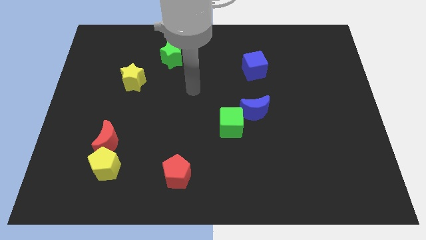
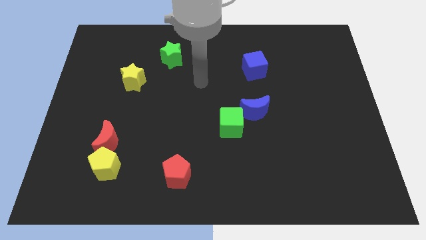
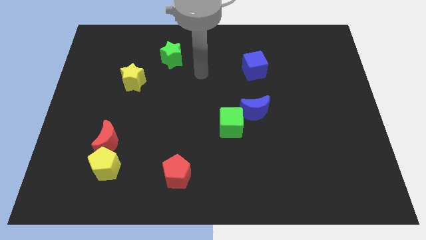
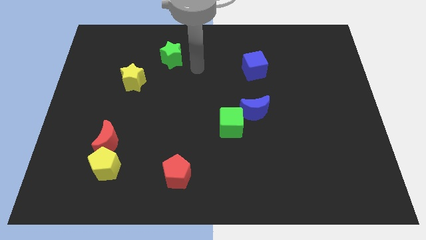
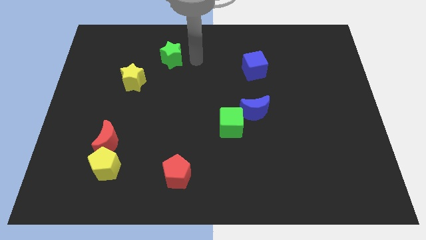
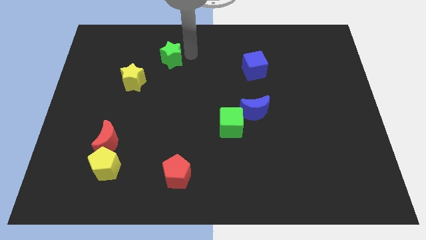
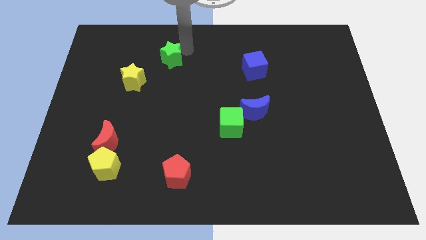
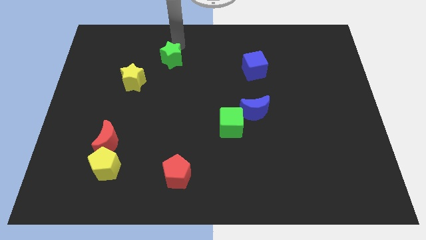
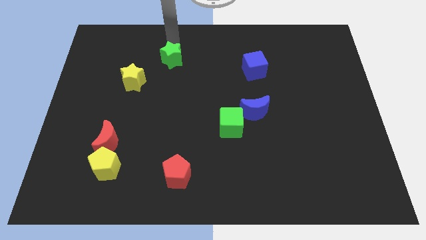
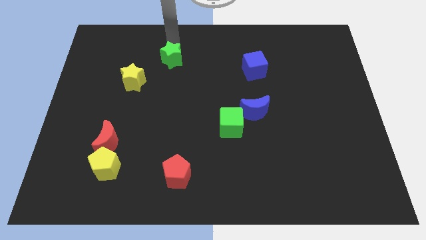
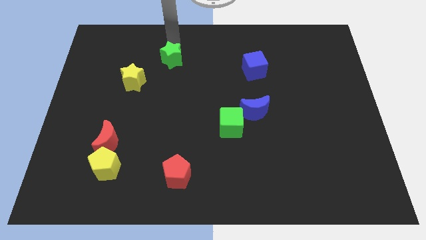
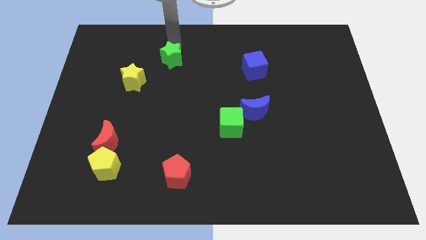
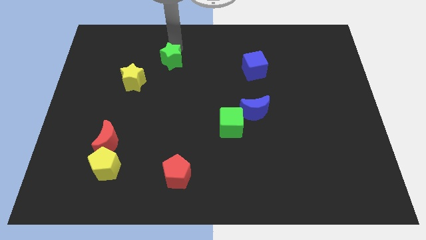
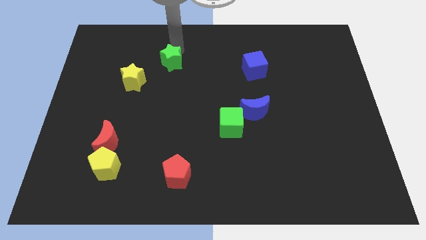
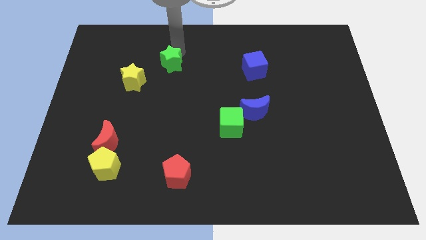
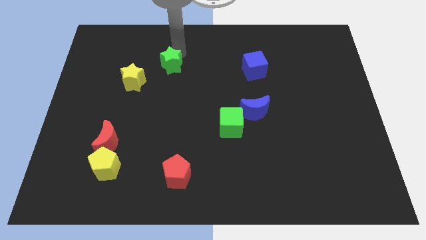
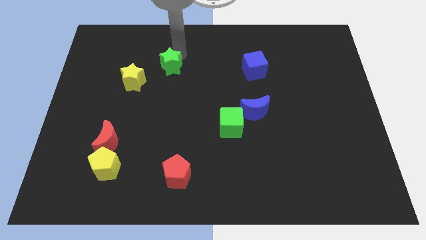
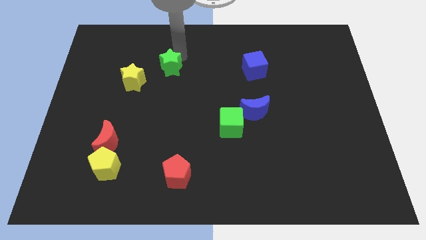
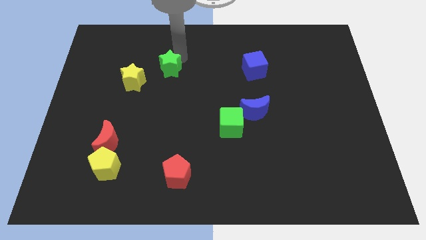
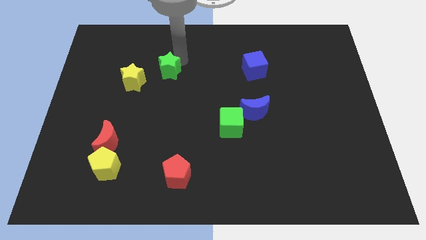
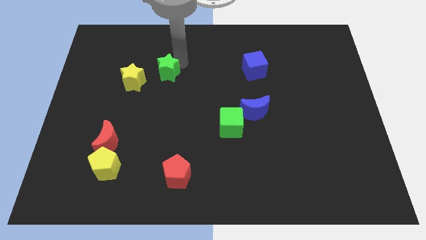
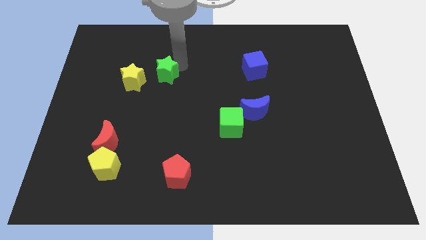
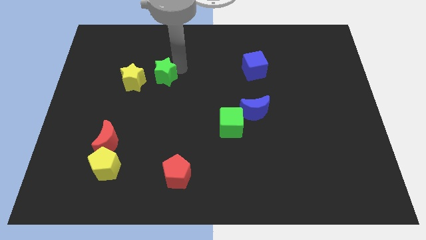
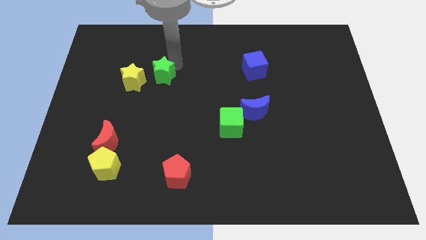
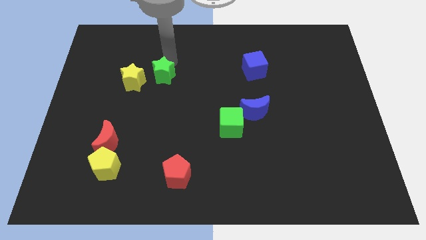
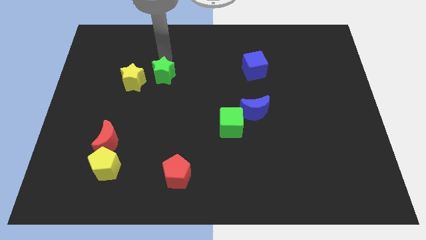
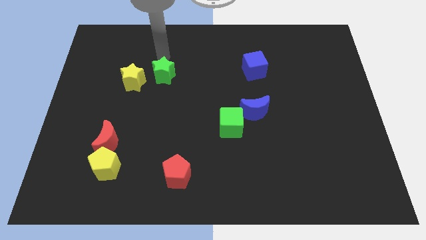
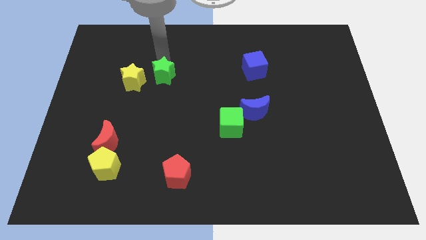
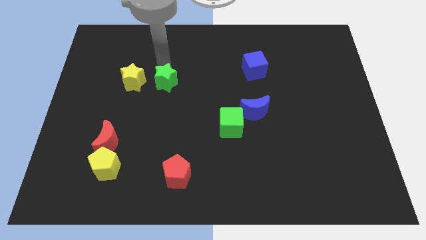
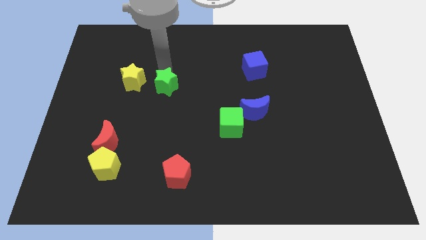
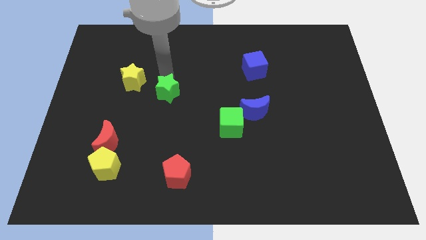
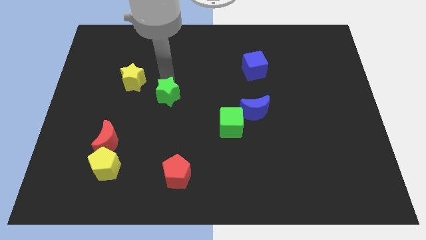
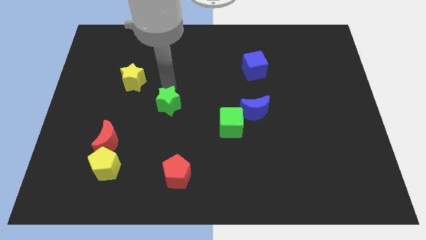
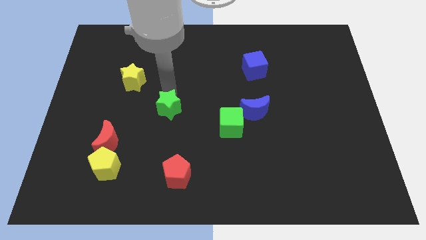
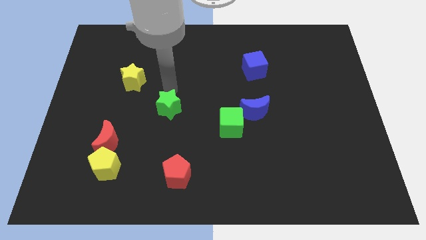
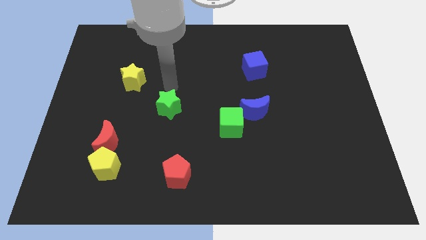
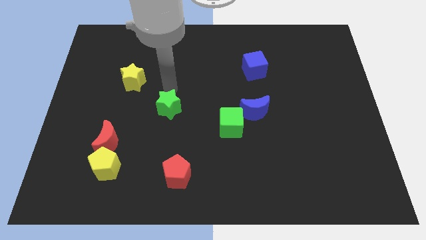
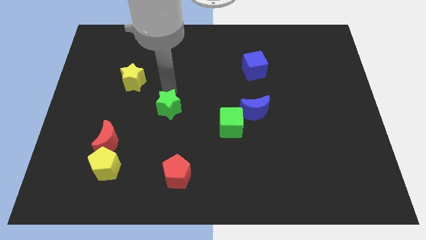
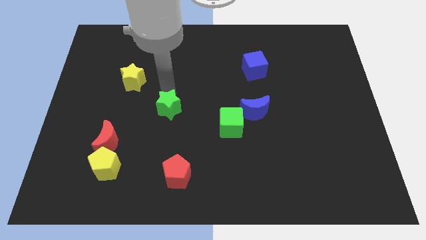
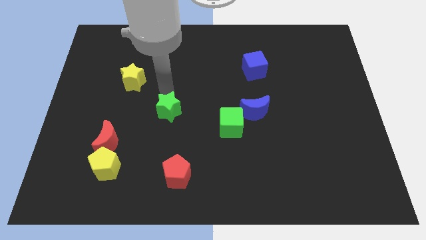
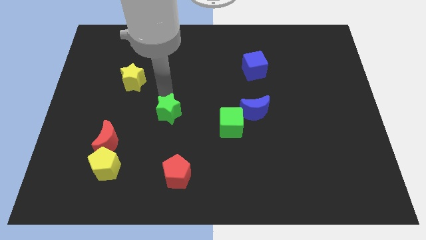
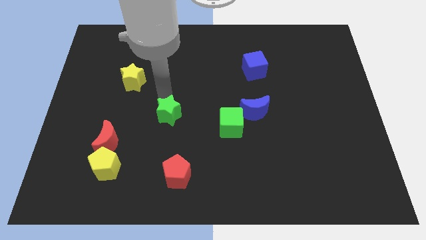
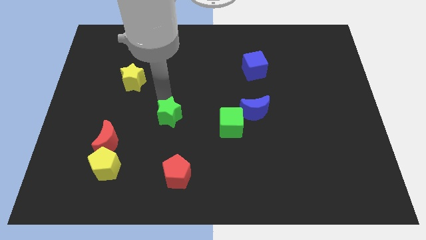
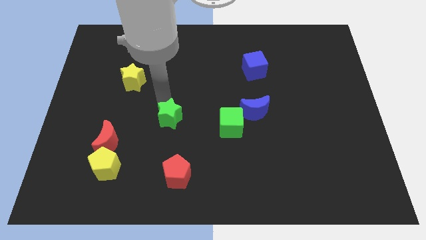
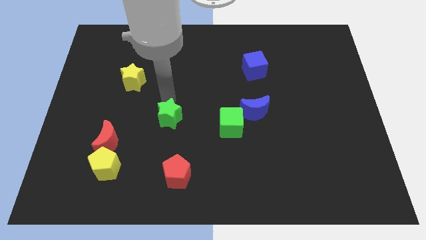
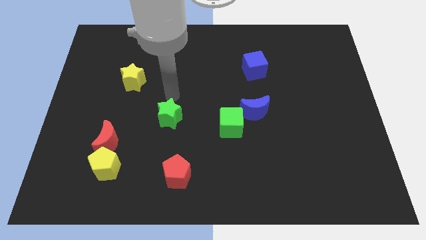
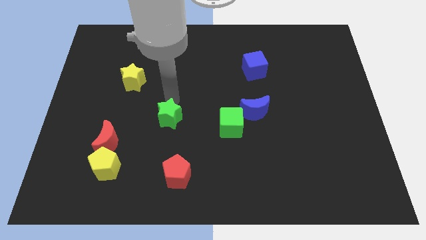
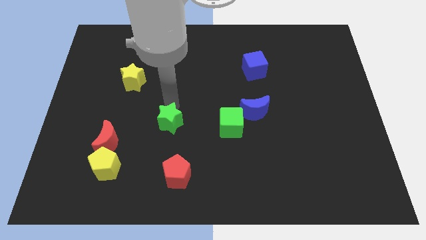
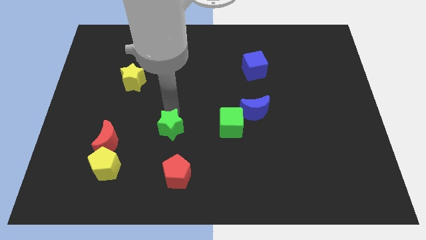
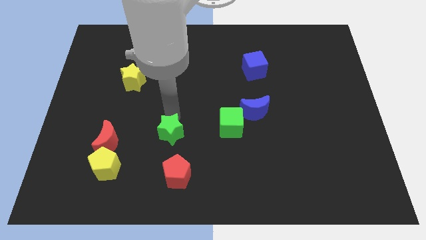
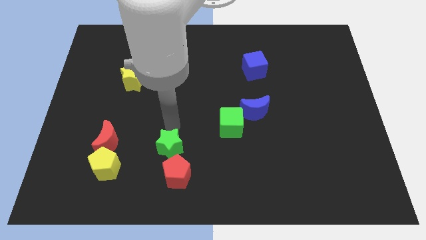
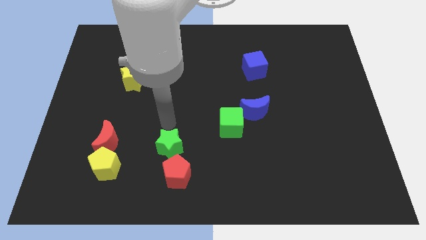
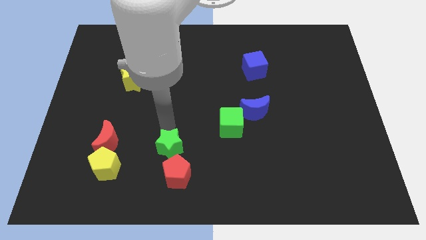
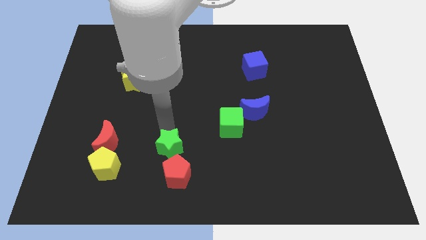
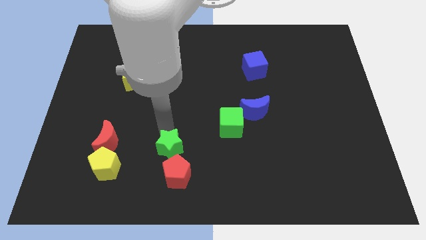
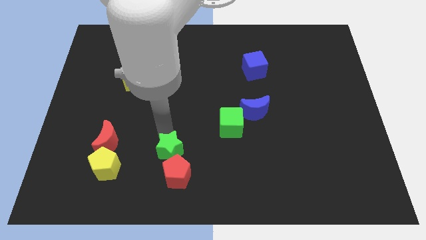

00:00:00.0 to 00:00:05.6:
push the green star next to the red pentagon

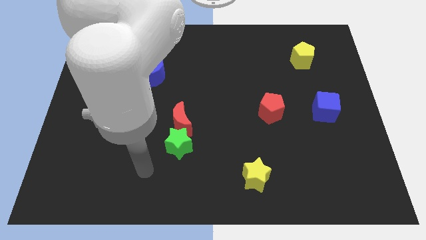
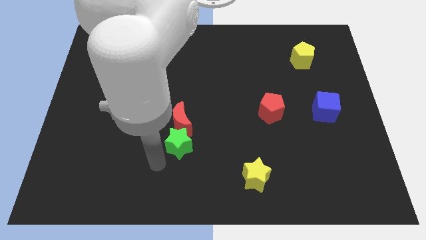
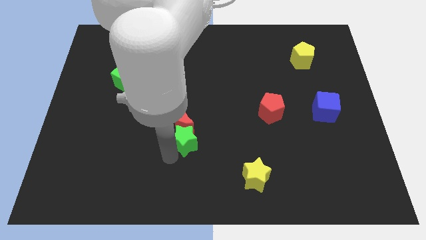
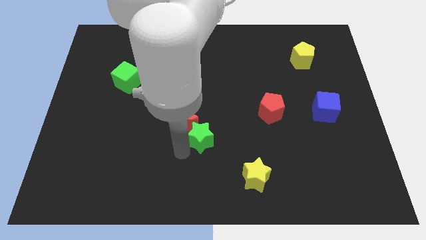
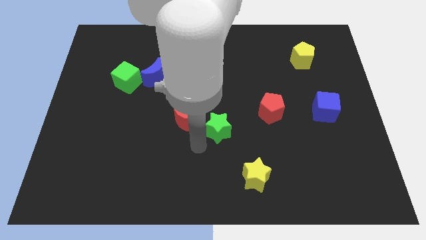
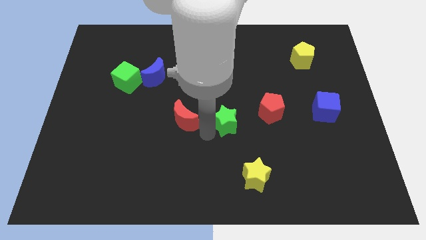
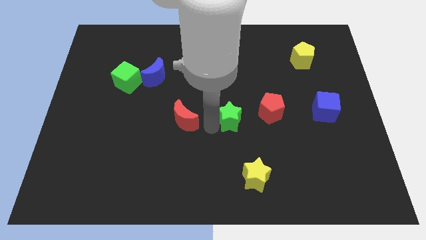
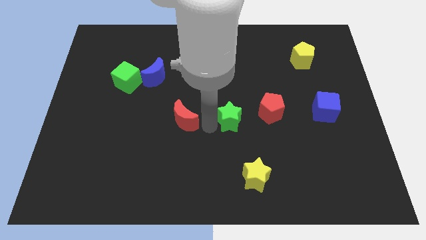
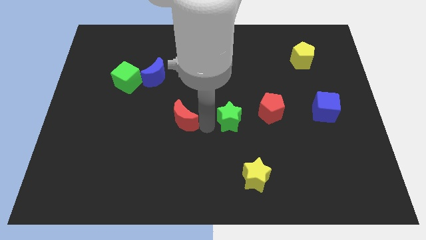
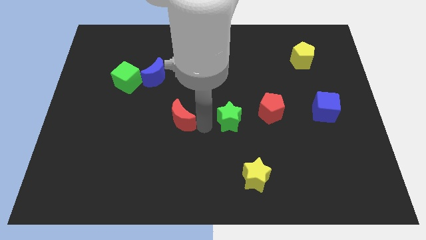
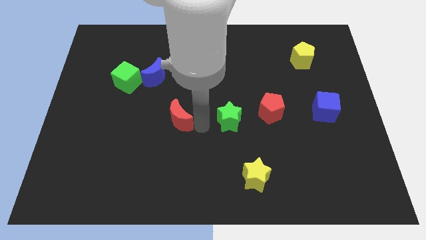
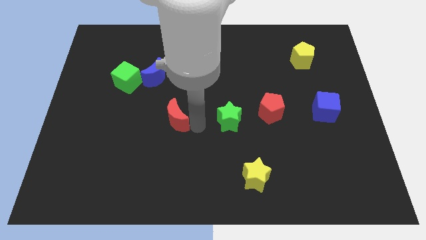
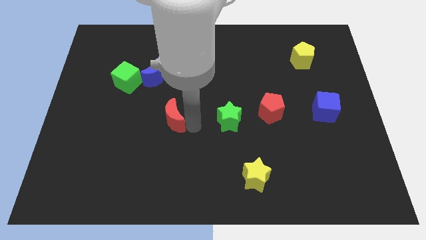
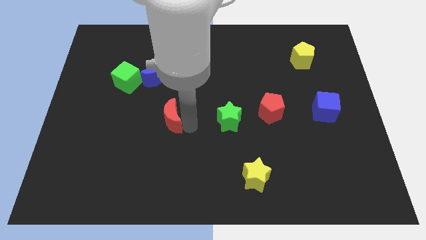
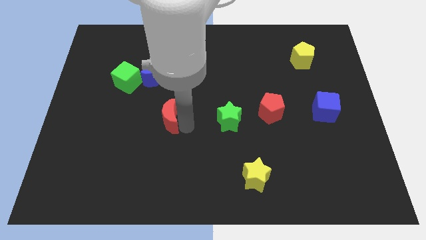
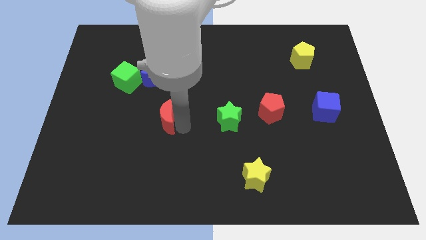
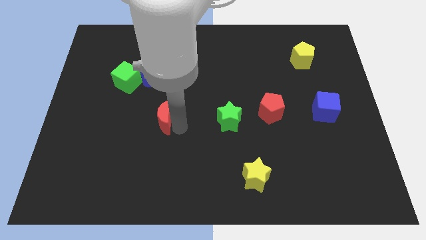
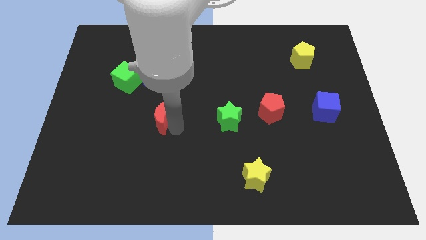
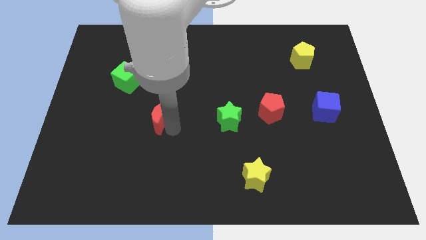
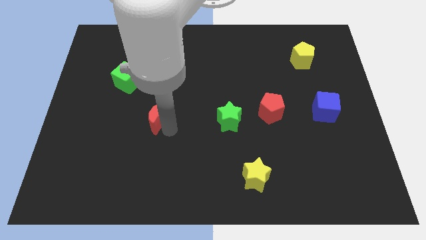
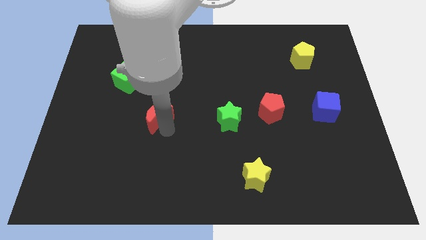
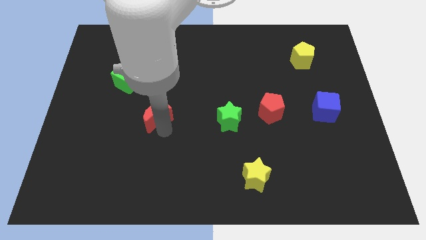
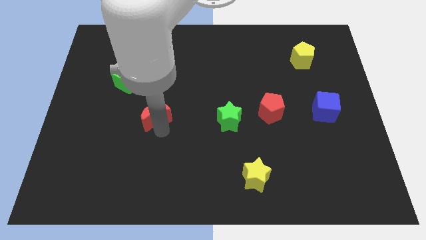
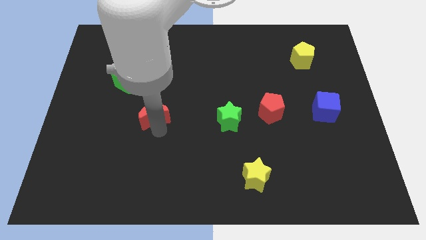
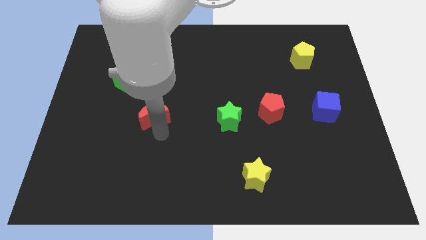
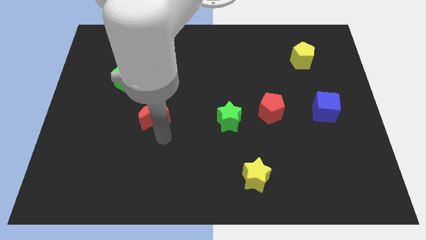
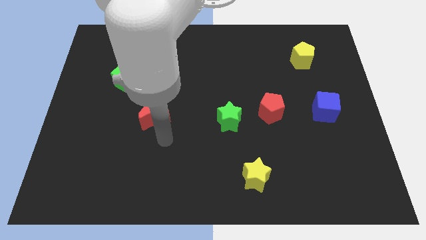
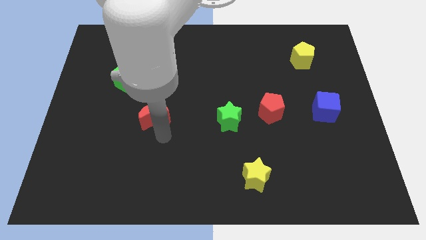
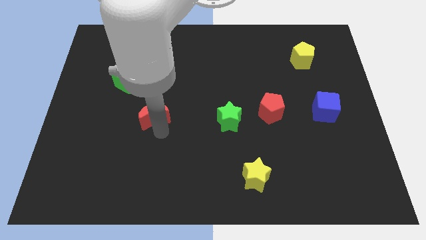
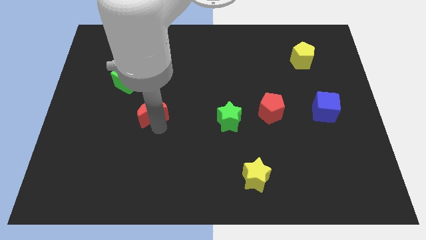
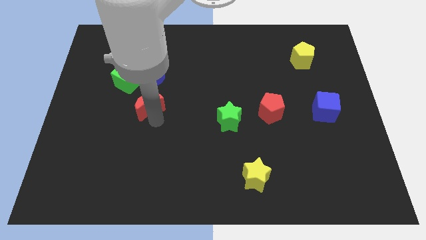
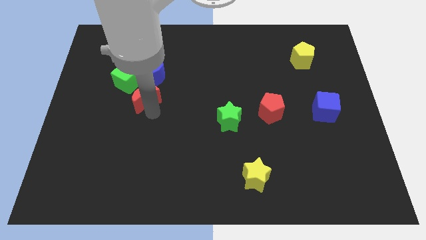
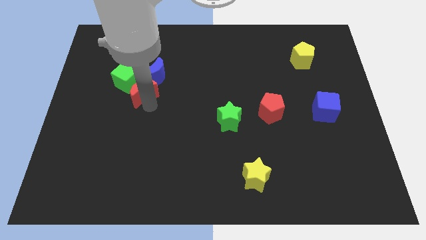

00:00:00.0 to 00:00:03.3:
put the red moon towards the green cube
